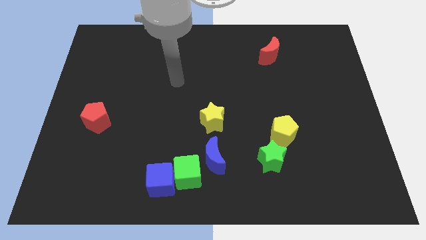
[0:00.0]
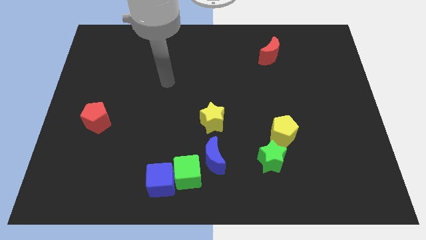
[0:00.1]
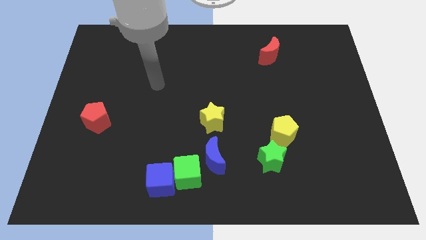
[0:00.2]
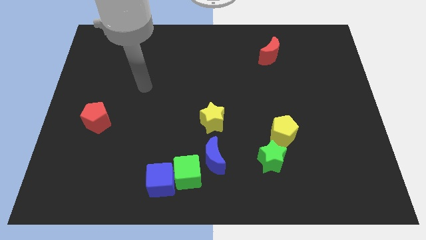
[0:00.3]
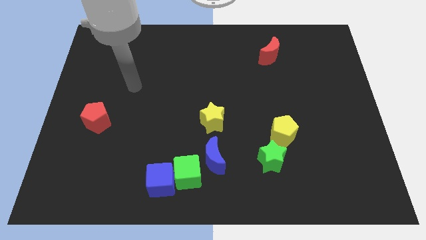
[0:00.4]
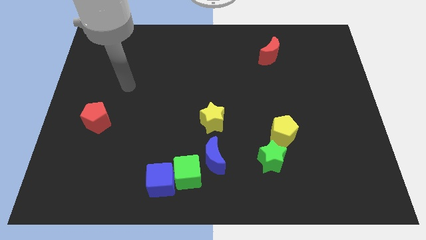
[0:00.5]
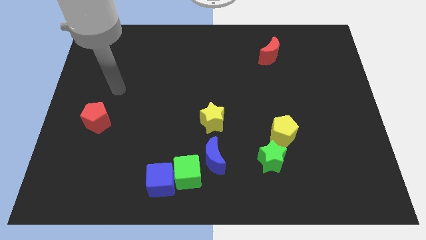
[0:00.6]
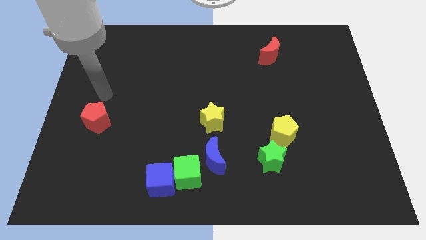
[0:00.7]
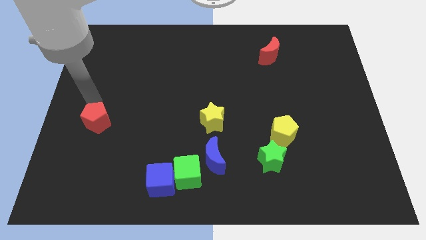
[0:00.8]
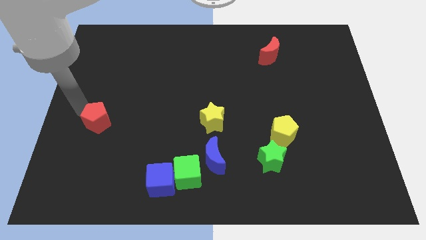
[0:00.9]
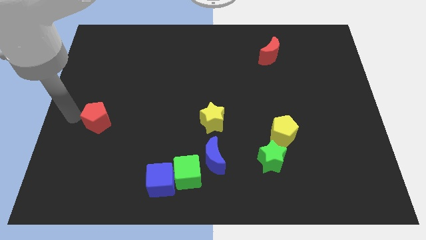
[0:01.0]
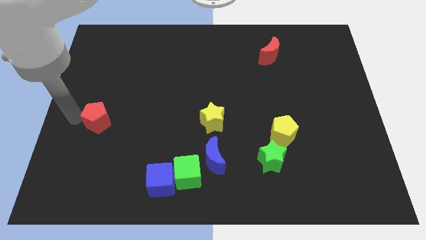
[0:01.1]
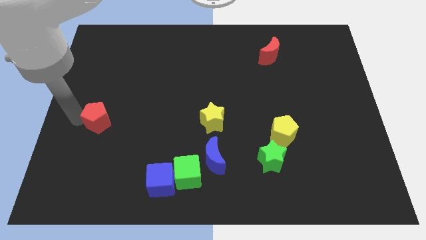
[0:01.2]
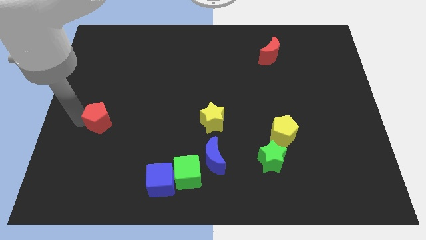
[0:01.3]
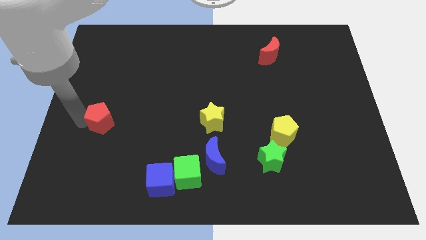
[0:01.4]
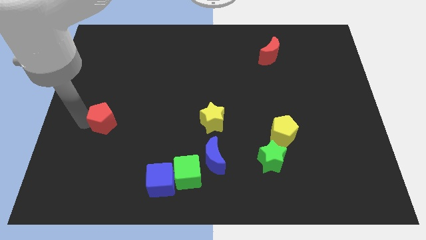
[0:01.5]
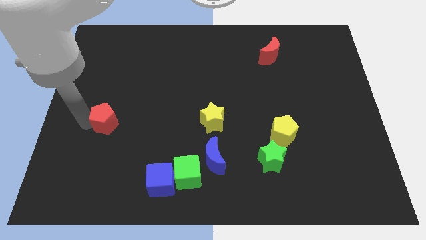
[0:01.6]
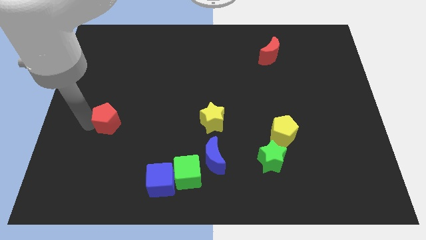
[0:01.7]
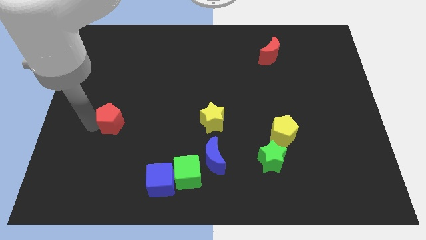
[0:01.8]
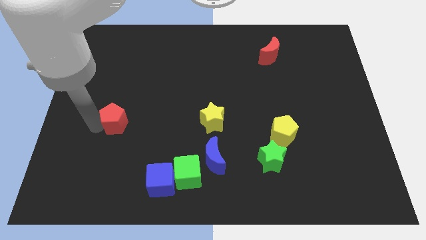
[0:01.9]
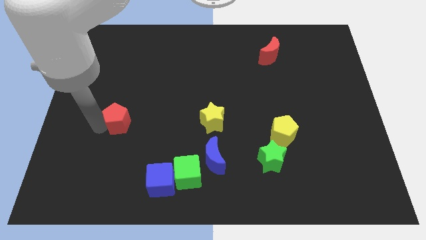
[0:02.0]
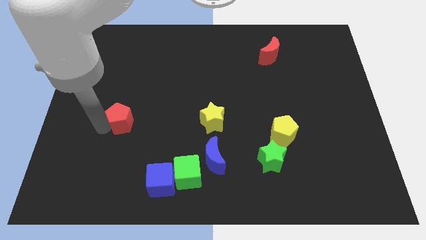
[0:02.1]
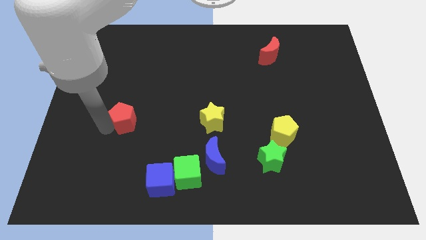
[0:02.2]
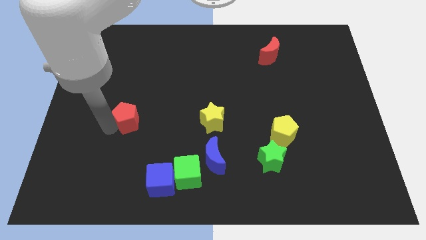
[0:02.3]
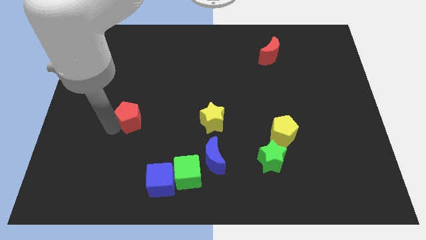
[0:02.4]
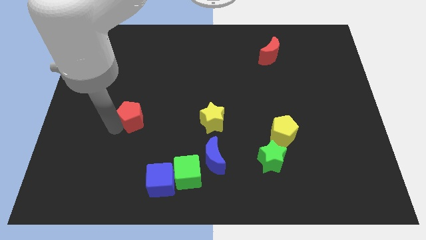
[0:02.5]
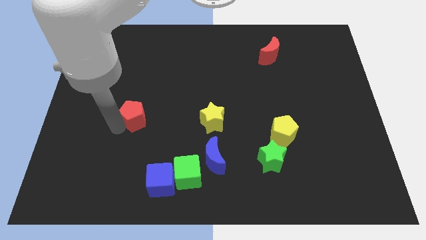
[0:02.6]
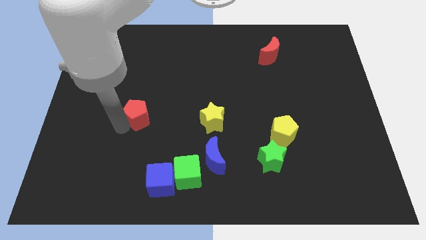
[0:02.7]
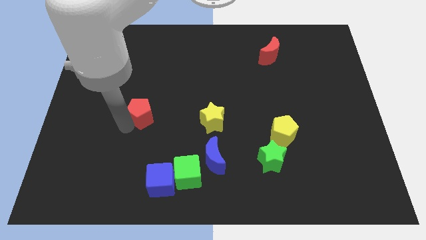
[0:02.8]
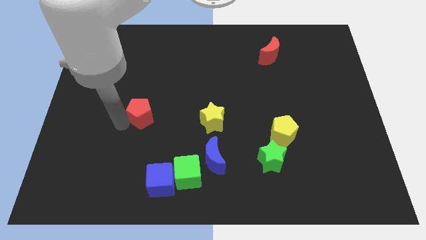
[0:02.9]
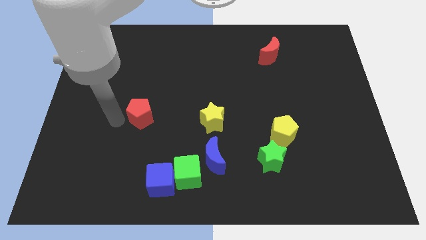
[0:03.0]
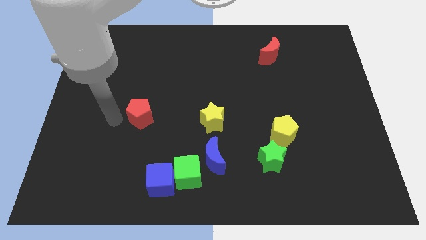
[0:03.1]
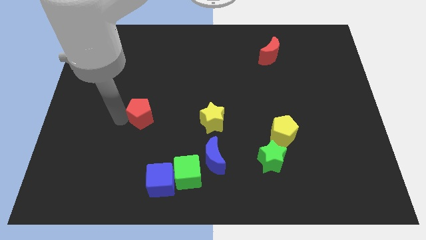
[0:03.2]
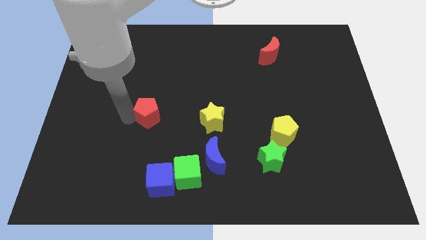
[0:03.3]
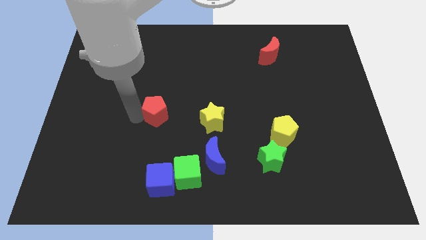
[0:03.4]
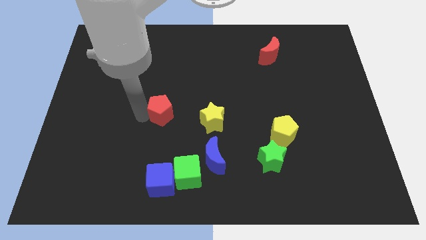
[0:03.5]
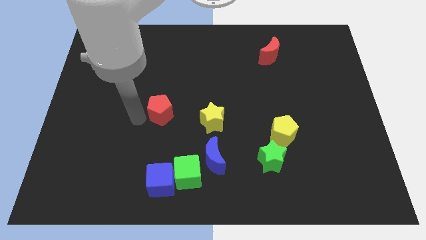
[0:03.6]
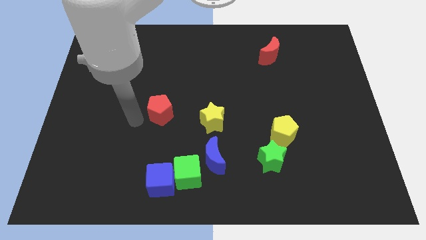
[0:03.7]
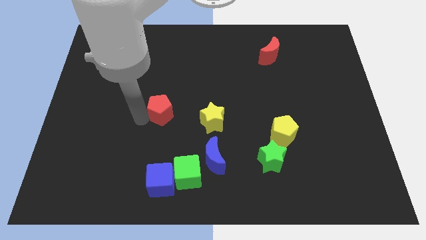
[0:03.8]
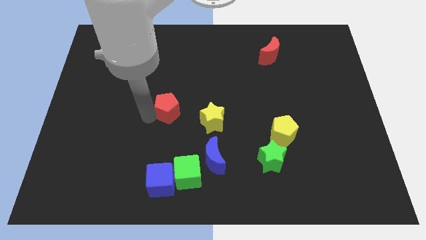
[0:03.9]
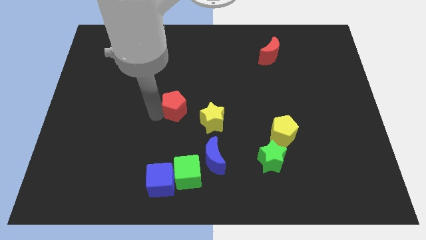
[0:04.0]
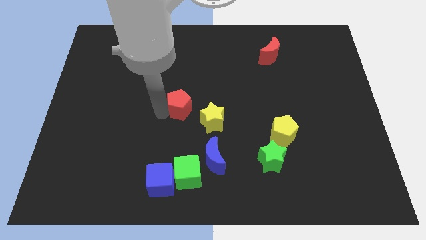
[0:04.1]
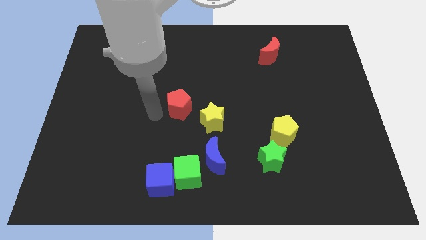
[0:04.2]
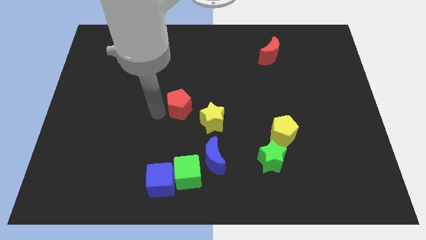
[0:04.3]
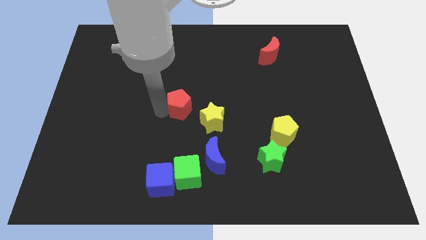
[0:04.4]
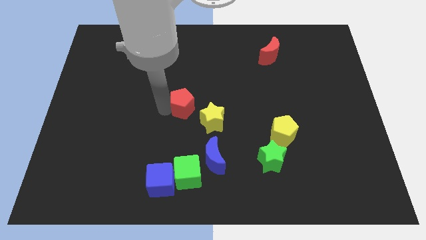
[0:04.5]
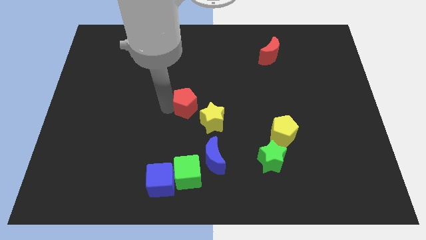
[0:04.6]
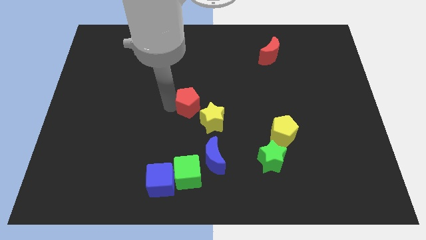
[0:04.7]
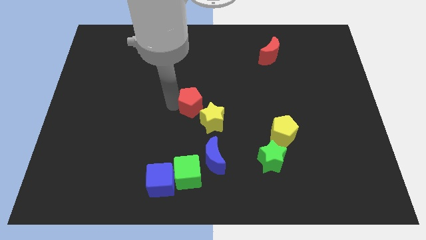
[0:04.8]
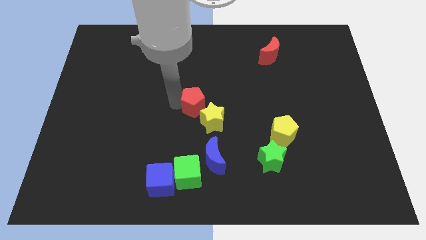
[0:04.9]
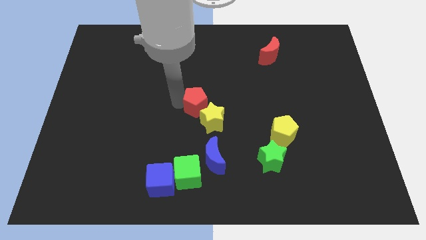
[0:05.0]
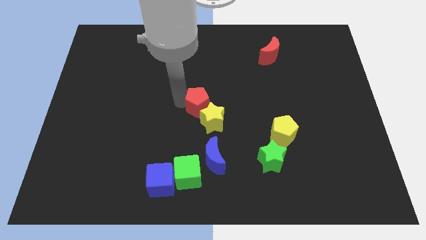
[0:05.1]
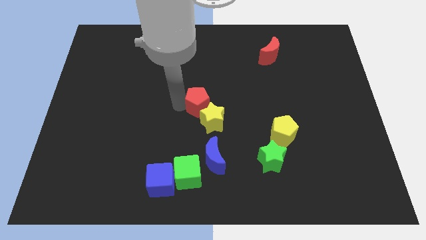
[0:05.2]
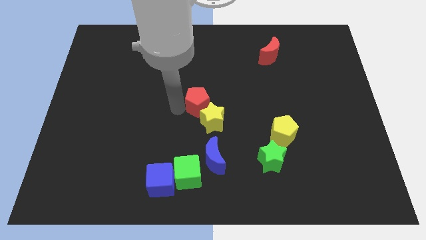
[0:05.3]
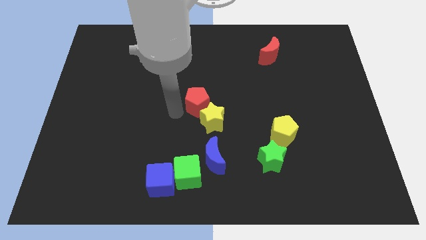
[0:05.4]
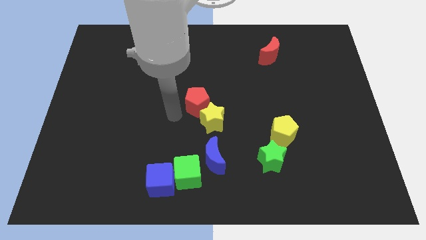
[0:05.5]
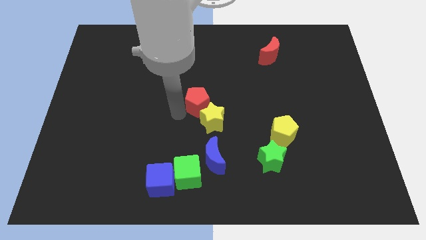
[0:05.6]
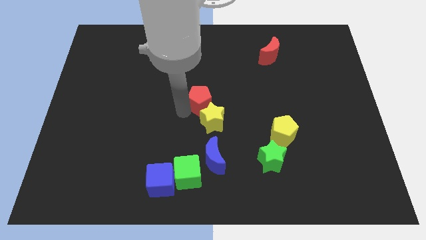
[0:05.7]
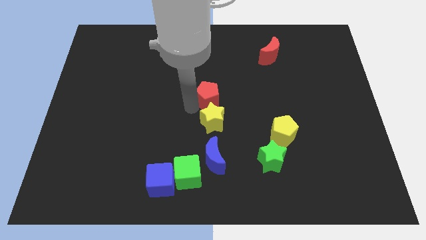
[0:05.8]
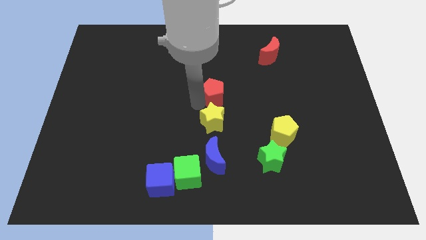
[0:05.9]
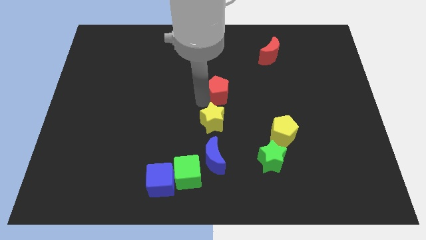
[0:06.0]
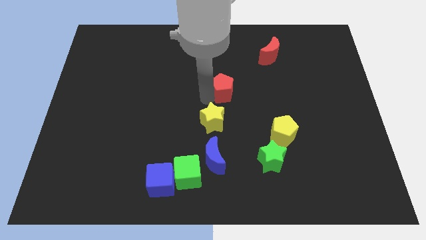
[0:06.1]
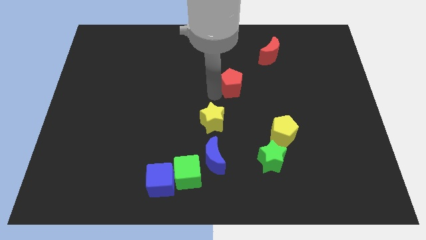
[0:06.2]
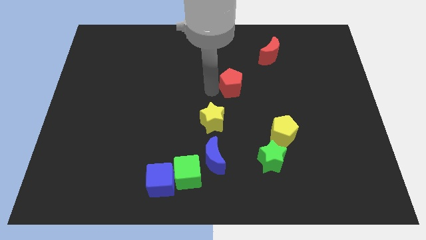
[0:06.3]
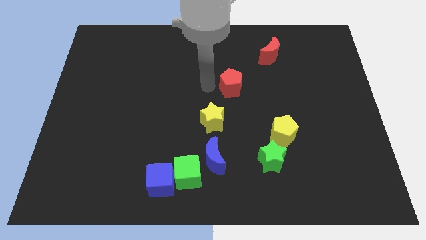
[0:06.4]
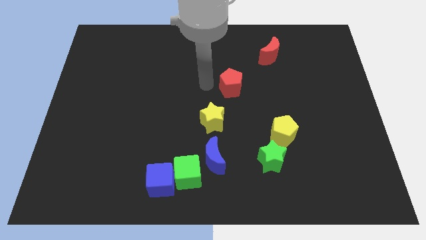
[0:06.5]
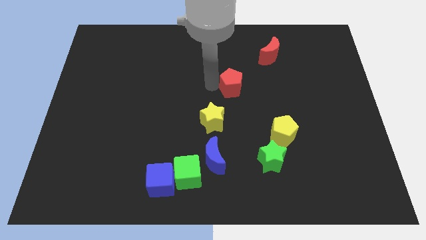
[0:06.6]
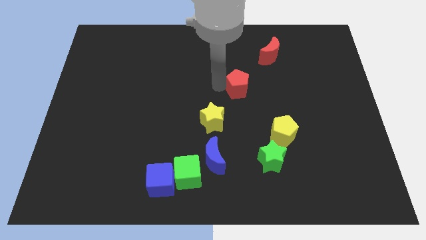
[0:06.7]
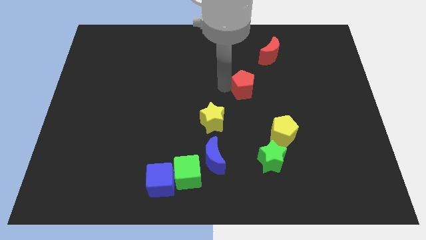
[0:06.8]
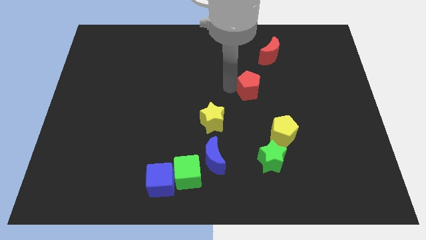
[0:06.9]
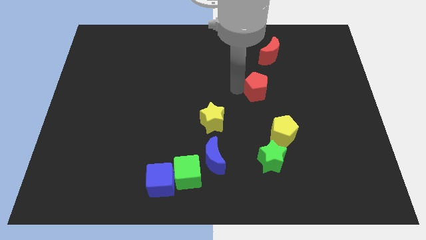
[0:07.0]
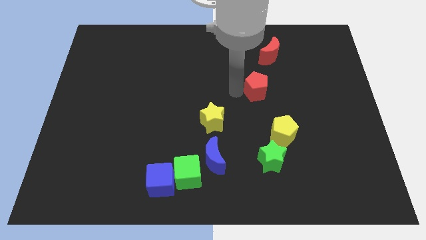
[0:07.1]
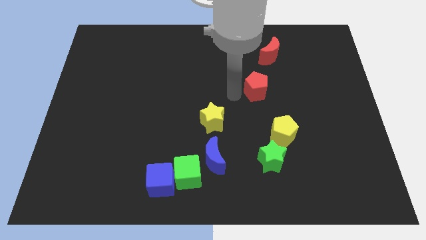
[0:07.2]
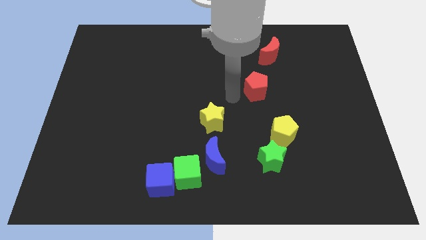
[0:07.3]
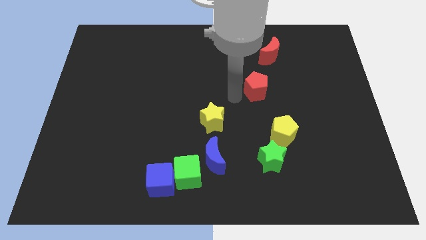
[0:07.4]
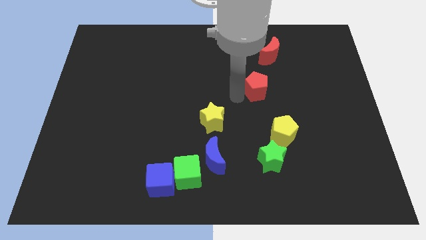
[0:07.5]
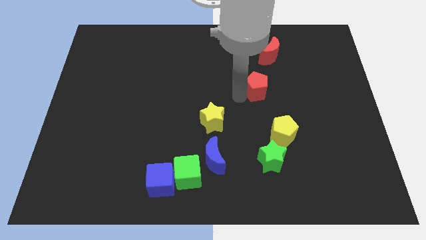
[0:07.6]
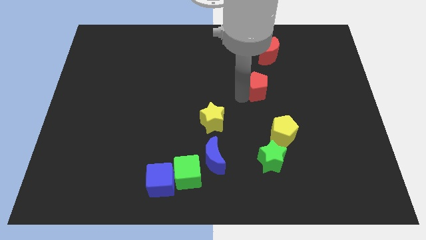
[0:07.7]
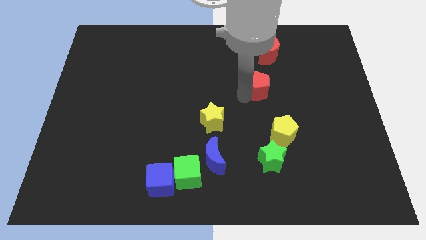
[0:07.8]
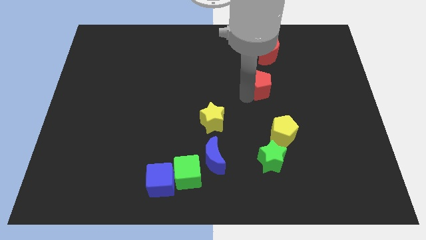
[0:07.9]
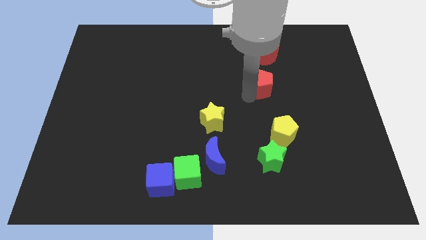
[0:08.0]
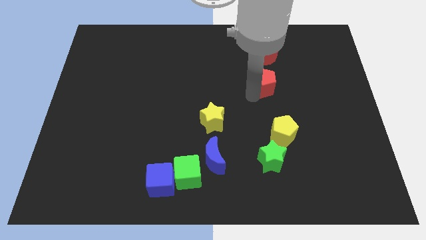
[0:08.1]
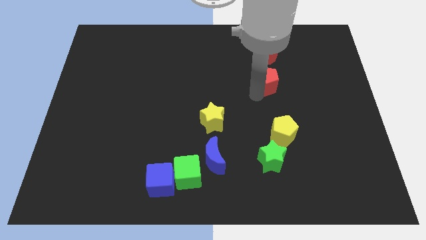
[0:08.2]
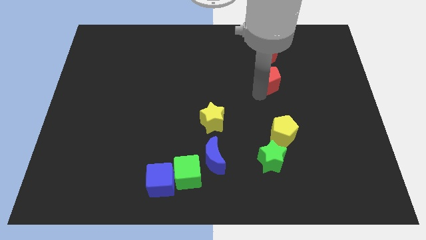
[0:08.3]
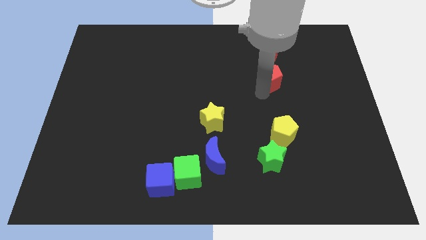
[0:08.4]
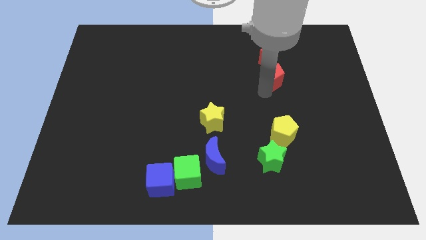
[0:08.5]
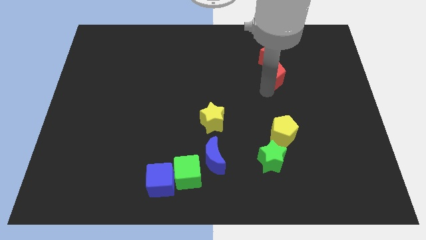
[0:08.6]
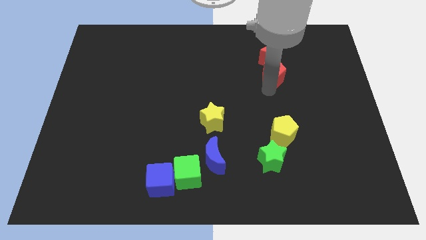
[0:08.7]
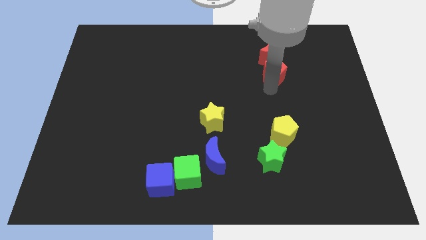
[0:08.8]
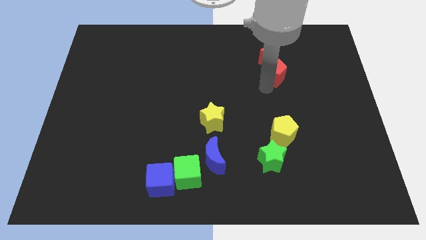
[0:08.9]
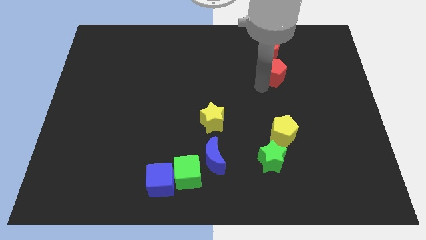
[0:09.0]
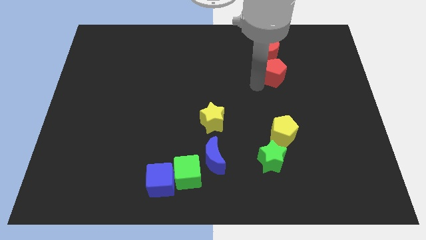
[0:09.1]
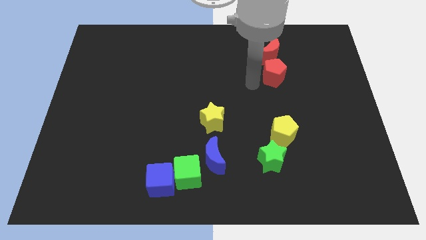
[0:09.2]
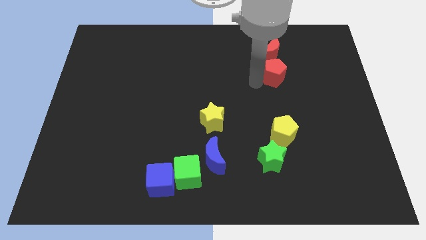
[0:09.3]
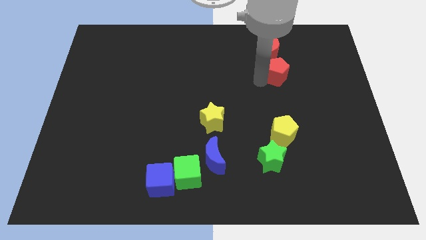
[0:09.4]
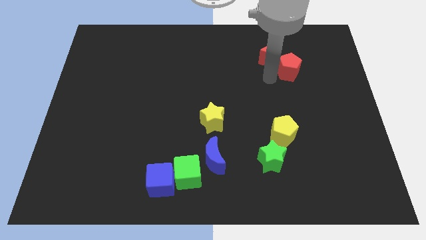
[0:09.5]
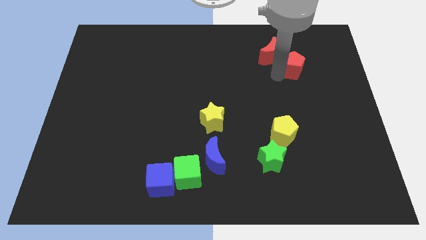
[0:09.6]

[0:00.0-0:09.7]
move the red pentagon to the right of the red moon
